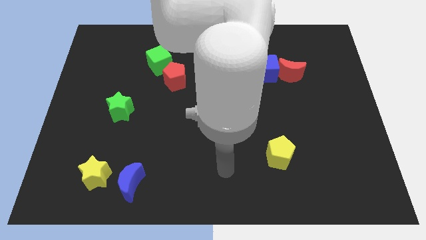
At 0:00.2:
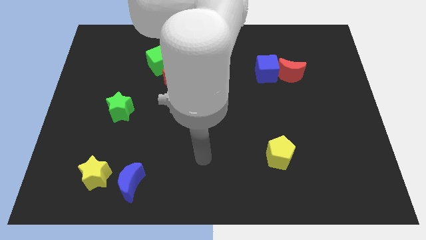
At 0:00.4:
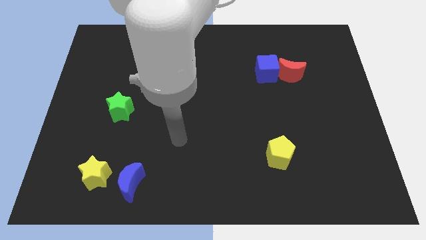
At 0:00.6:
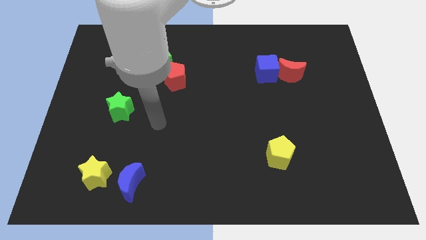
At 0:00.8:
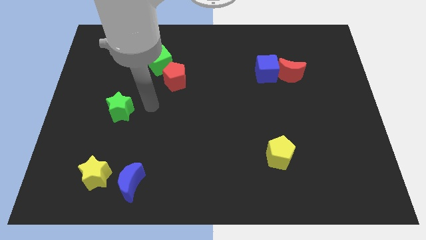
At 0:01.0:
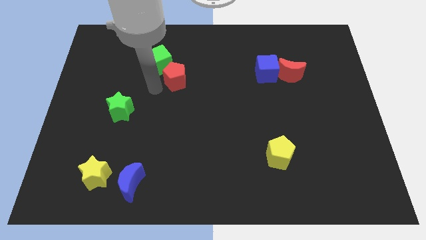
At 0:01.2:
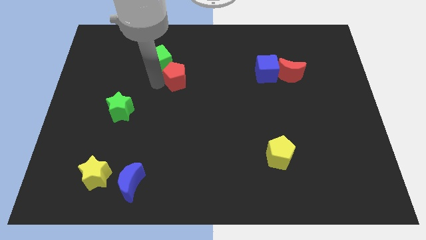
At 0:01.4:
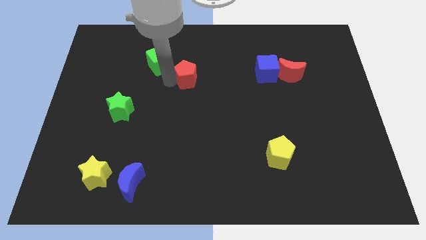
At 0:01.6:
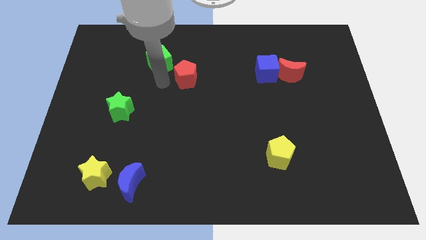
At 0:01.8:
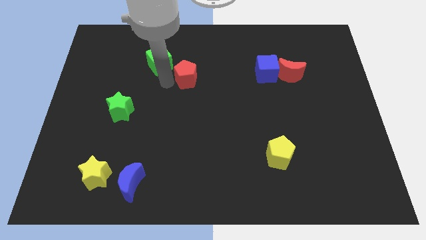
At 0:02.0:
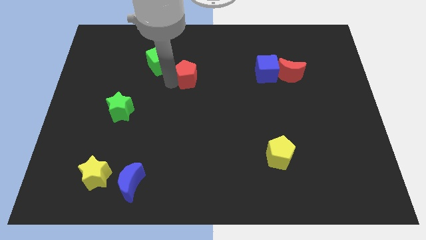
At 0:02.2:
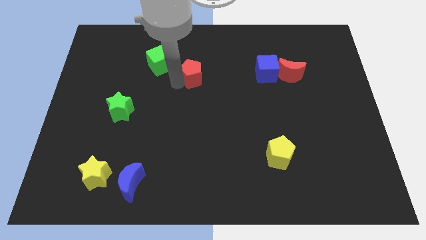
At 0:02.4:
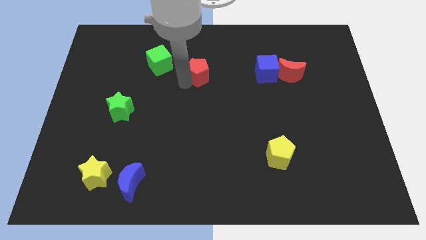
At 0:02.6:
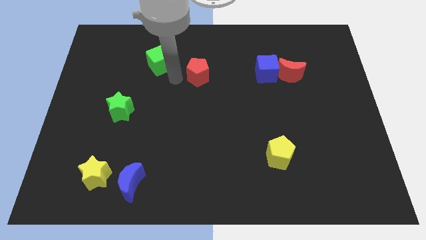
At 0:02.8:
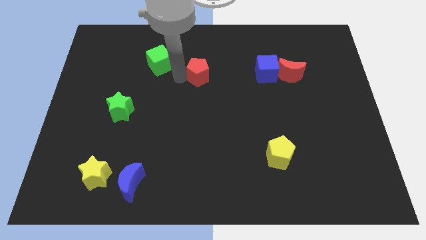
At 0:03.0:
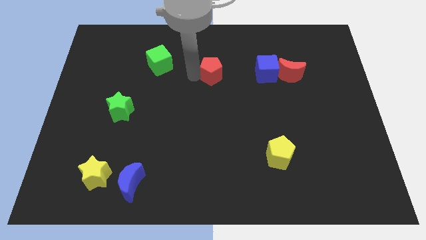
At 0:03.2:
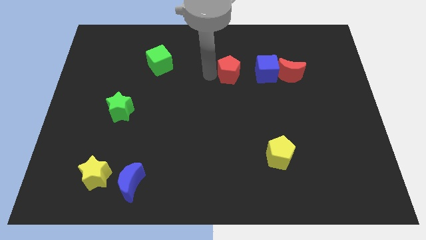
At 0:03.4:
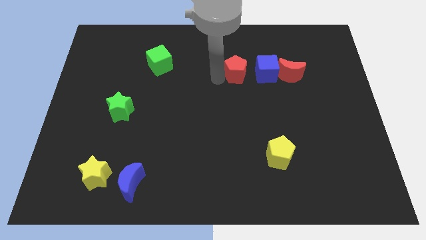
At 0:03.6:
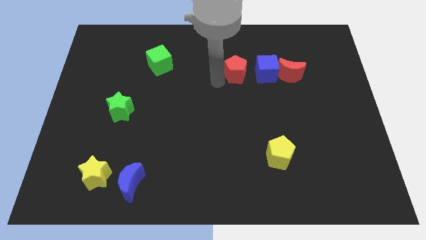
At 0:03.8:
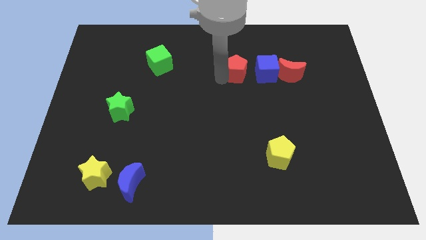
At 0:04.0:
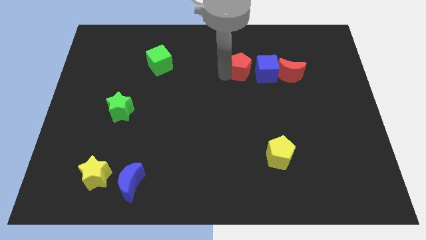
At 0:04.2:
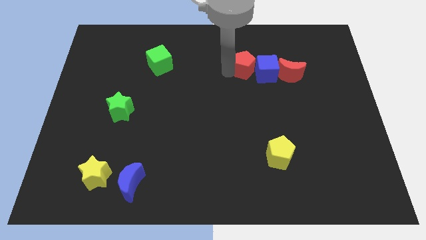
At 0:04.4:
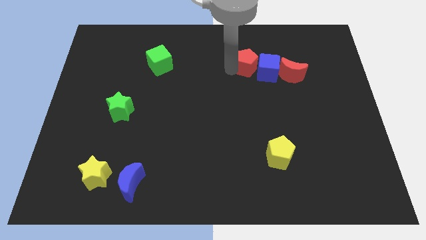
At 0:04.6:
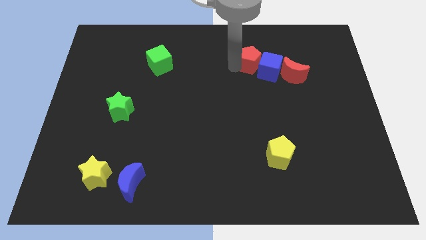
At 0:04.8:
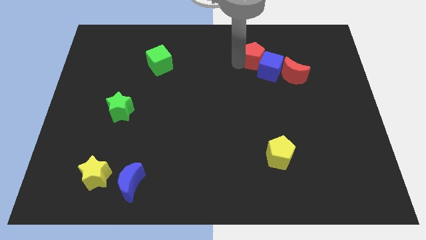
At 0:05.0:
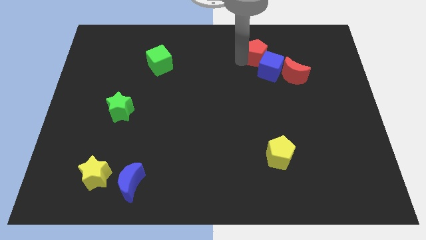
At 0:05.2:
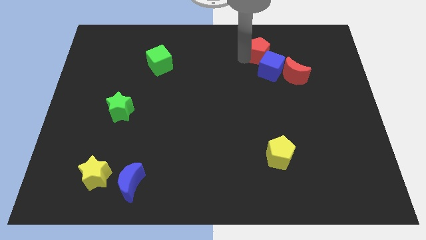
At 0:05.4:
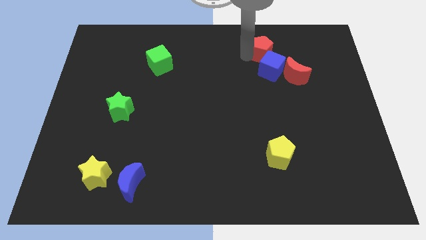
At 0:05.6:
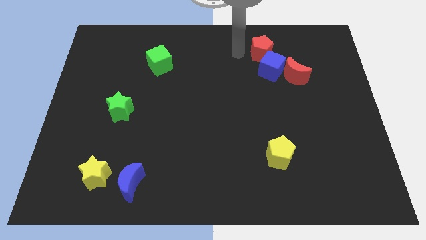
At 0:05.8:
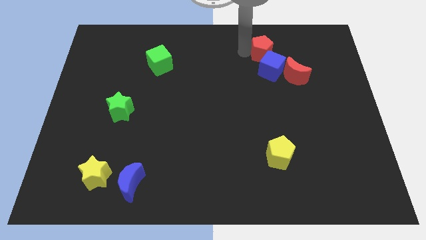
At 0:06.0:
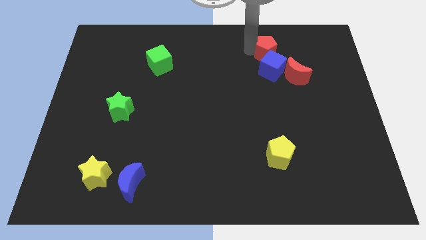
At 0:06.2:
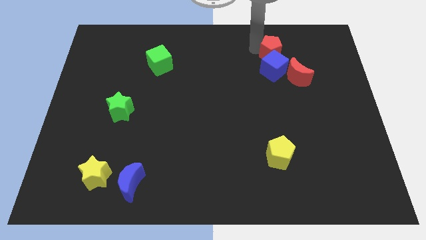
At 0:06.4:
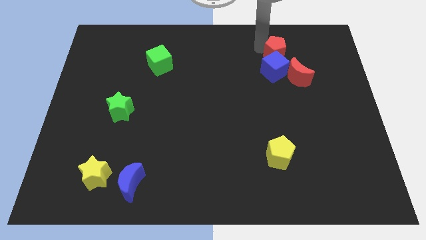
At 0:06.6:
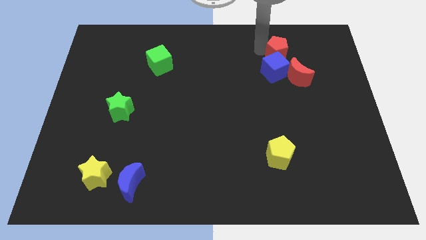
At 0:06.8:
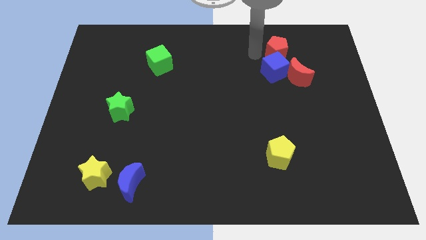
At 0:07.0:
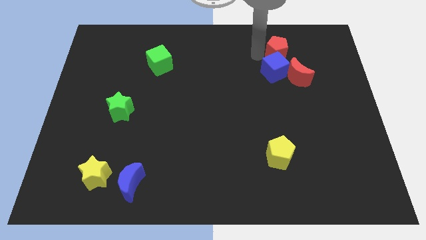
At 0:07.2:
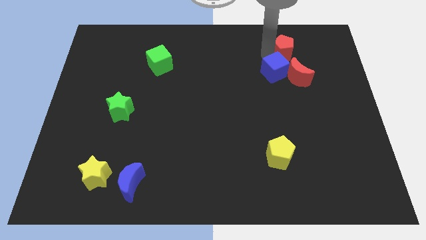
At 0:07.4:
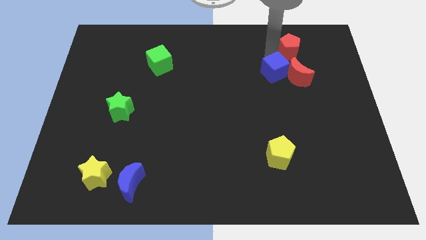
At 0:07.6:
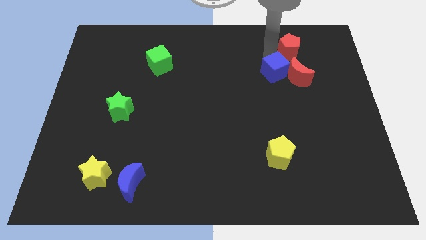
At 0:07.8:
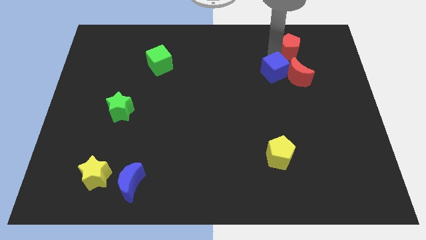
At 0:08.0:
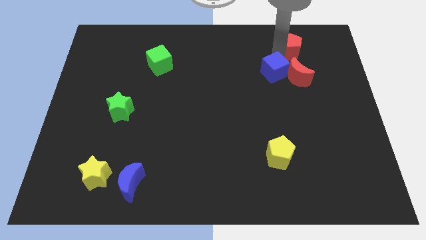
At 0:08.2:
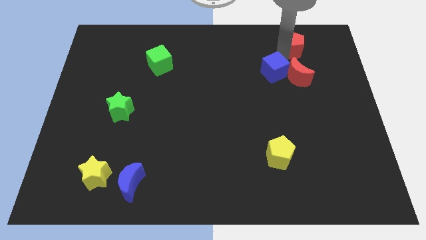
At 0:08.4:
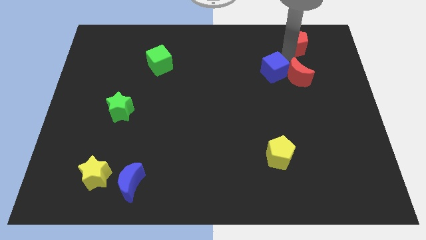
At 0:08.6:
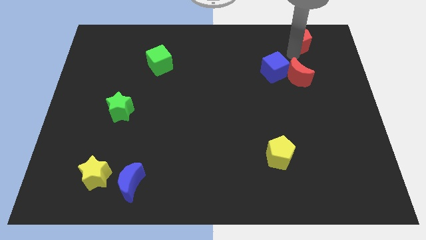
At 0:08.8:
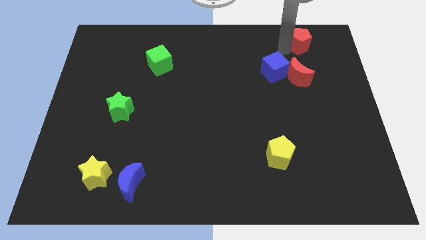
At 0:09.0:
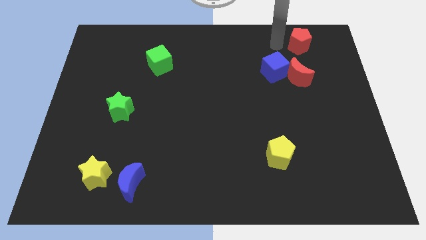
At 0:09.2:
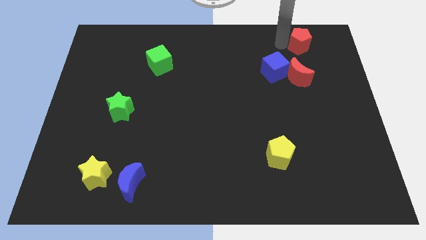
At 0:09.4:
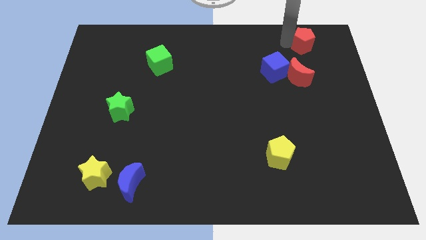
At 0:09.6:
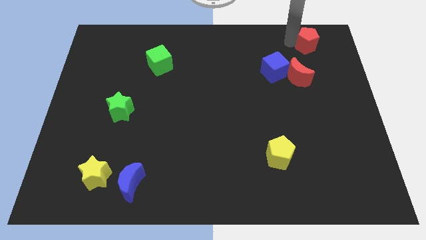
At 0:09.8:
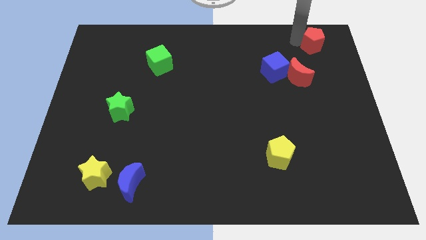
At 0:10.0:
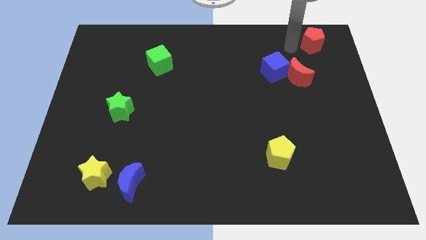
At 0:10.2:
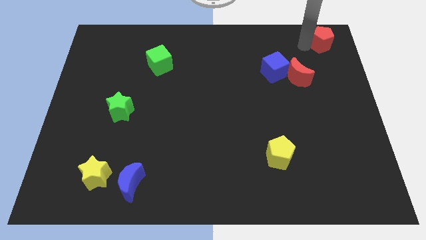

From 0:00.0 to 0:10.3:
put the red pentagon to the top right of the board

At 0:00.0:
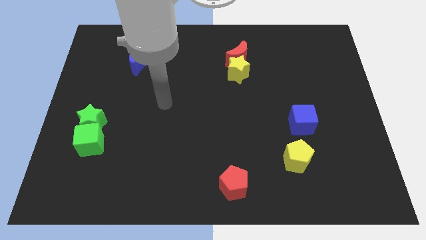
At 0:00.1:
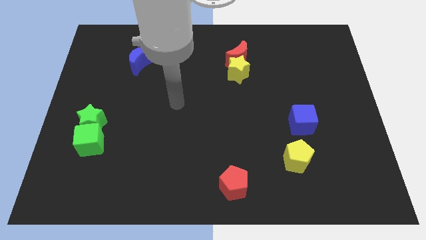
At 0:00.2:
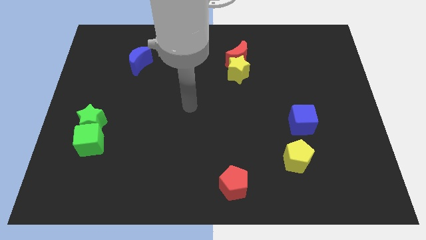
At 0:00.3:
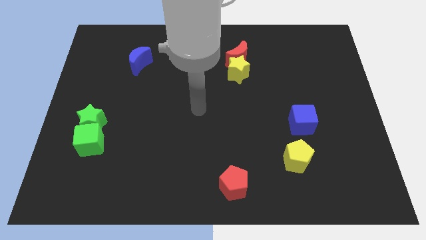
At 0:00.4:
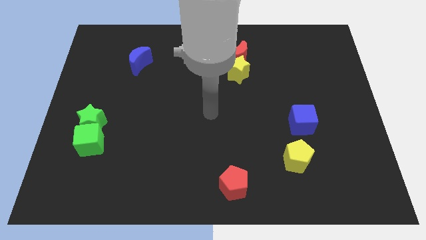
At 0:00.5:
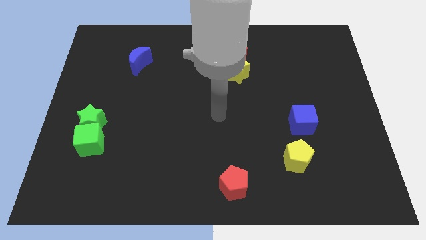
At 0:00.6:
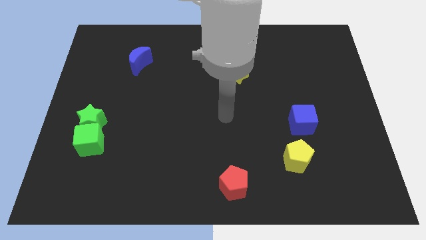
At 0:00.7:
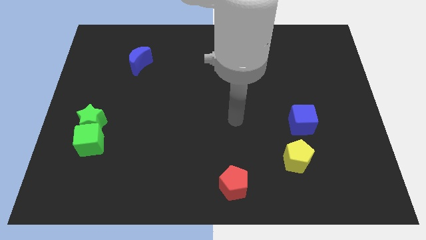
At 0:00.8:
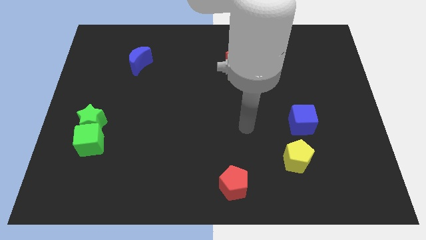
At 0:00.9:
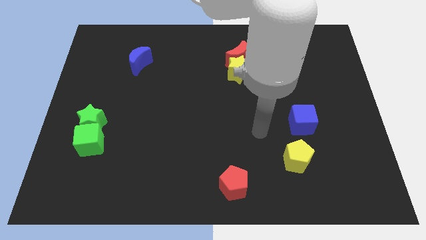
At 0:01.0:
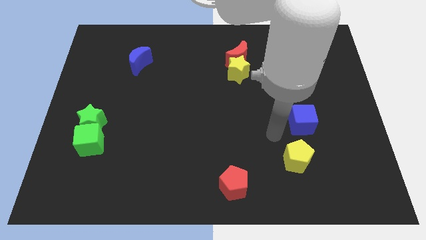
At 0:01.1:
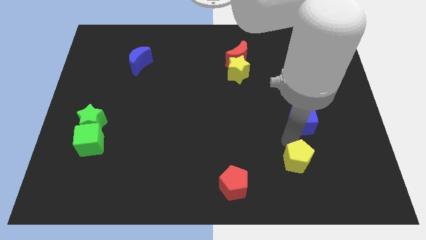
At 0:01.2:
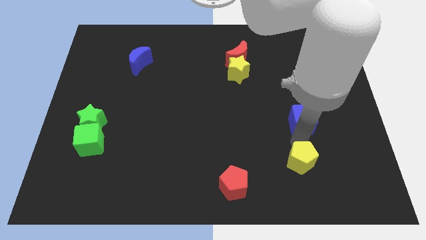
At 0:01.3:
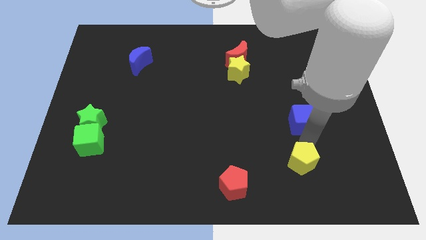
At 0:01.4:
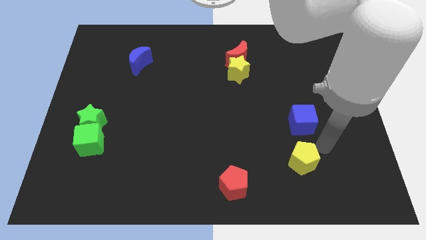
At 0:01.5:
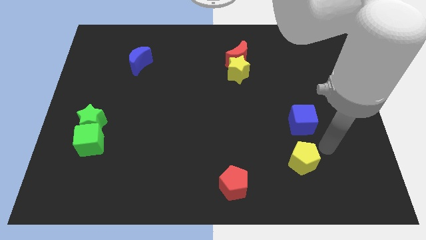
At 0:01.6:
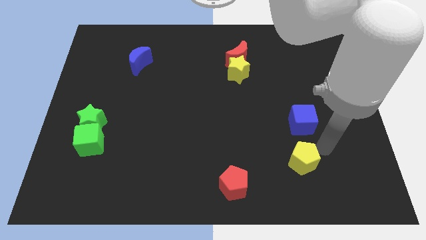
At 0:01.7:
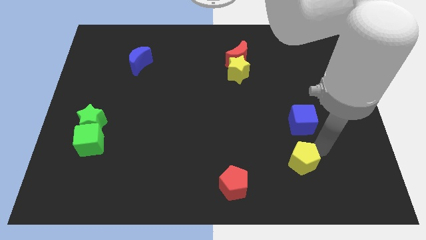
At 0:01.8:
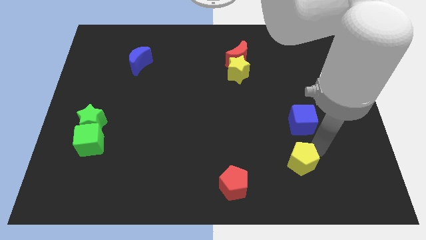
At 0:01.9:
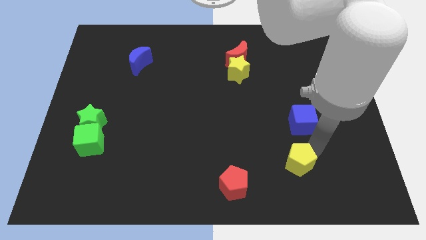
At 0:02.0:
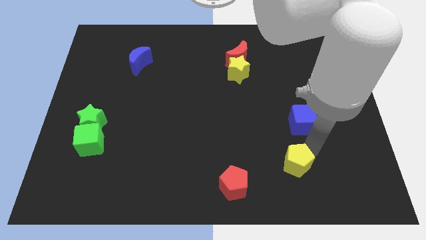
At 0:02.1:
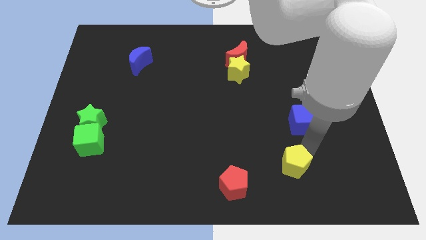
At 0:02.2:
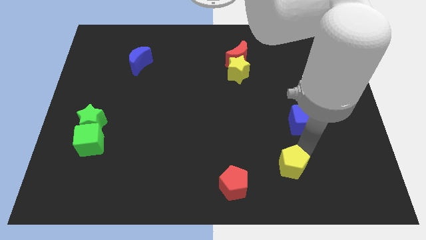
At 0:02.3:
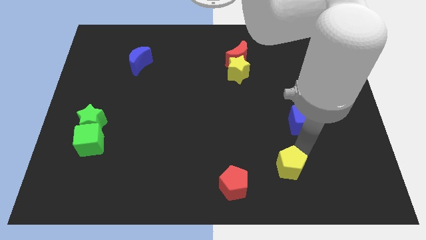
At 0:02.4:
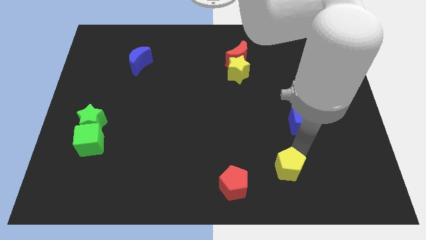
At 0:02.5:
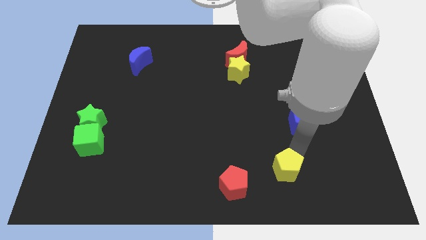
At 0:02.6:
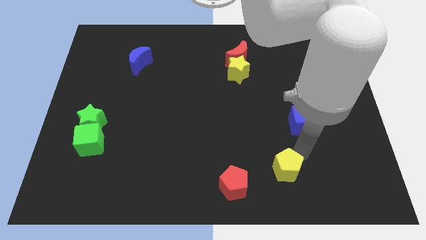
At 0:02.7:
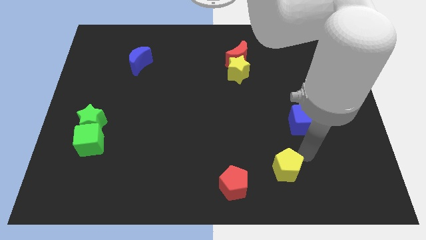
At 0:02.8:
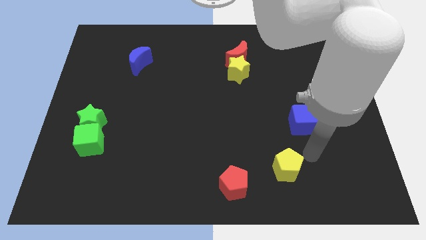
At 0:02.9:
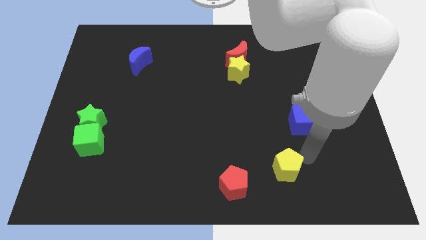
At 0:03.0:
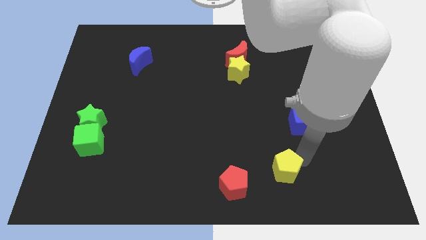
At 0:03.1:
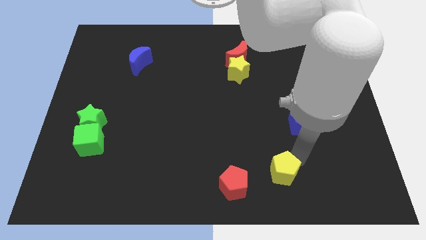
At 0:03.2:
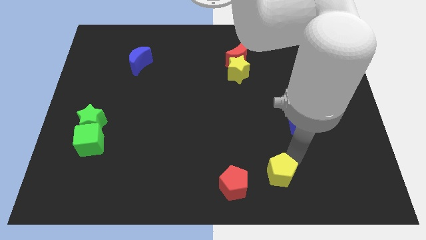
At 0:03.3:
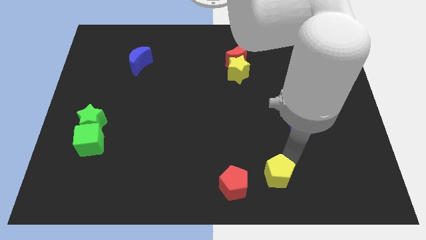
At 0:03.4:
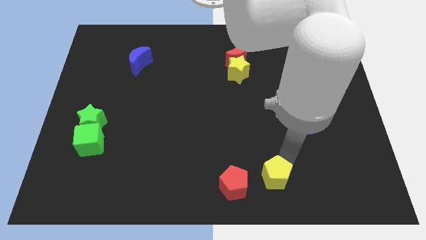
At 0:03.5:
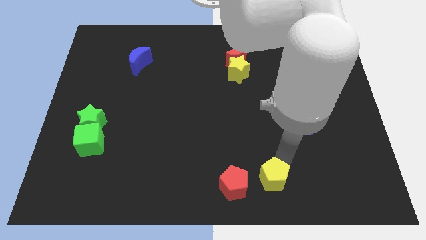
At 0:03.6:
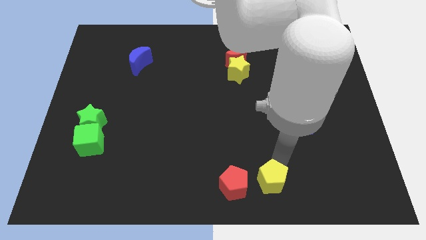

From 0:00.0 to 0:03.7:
slide the yellow pentagon to the bottom side
